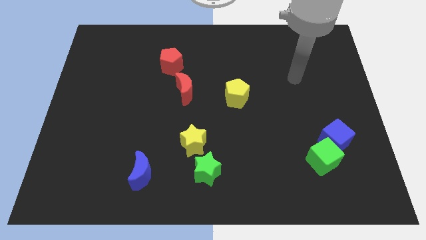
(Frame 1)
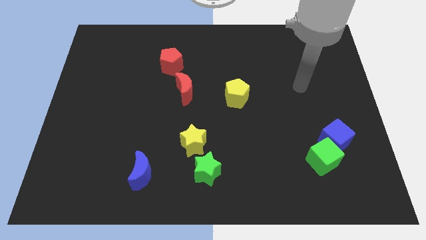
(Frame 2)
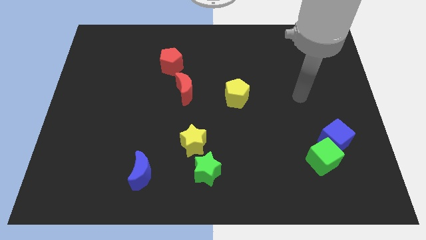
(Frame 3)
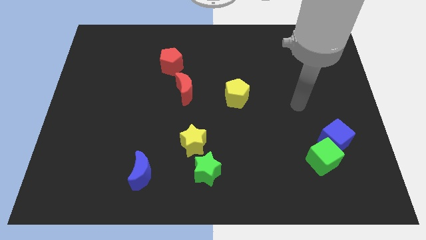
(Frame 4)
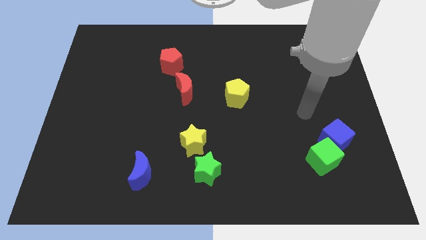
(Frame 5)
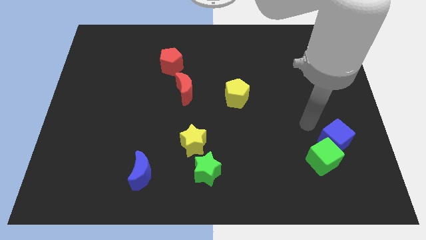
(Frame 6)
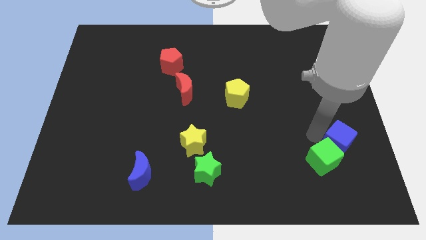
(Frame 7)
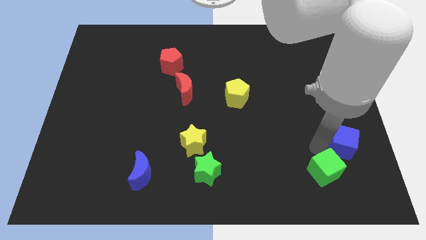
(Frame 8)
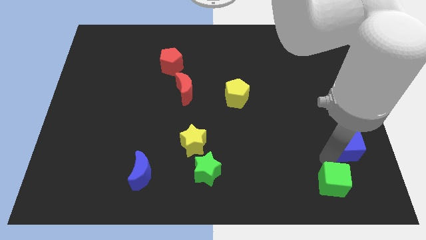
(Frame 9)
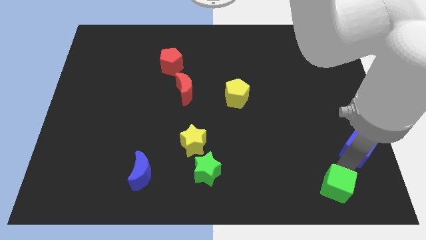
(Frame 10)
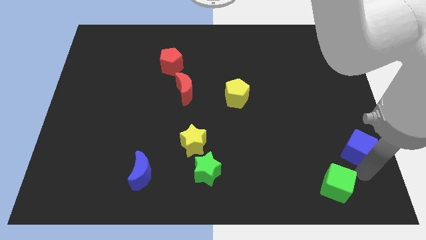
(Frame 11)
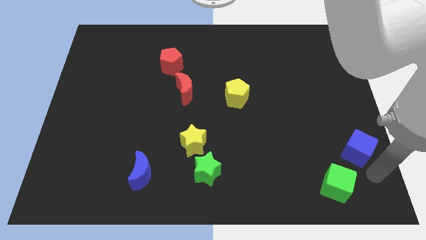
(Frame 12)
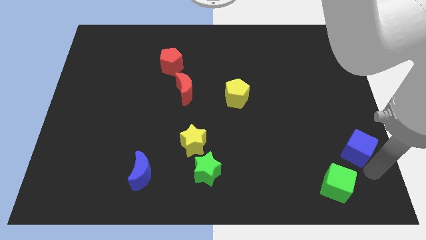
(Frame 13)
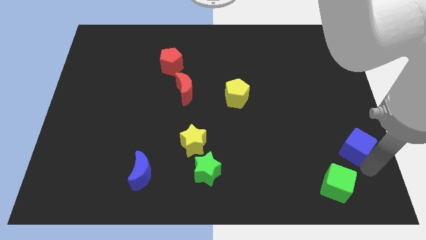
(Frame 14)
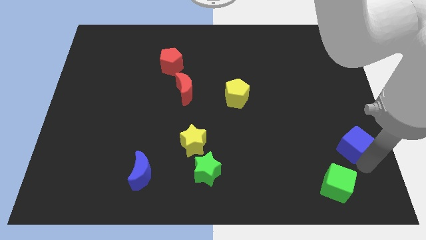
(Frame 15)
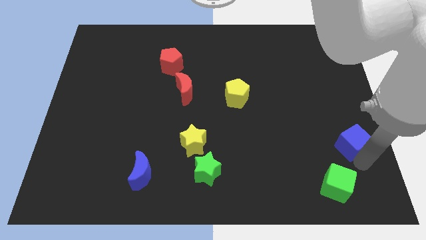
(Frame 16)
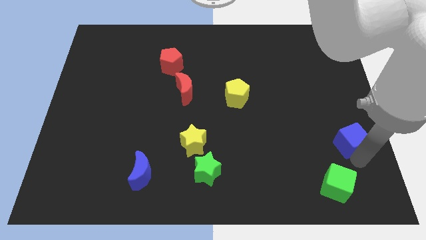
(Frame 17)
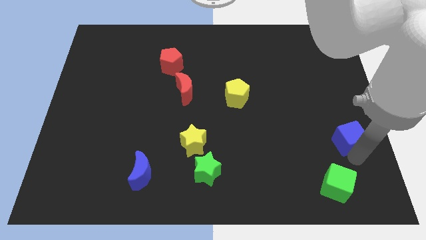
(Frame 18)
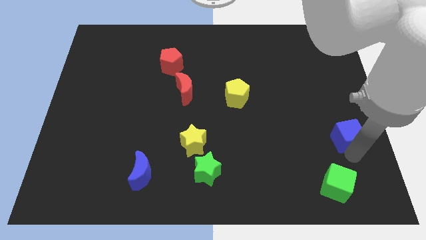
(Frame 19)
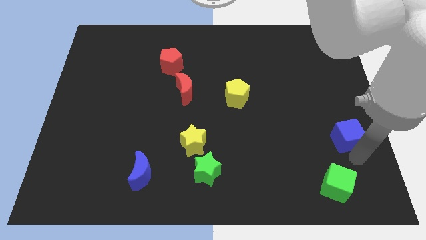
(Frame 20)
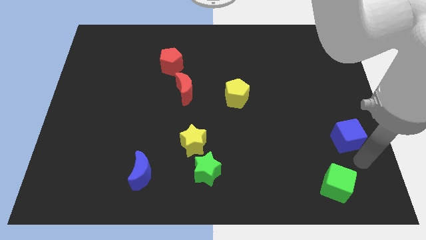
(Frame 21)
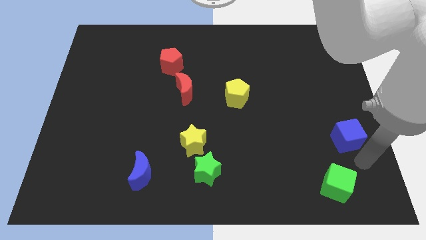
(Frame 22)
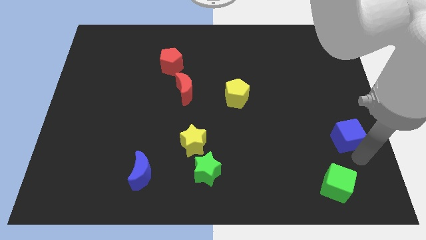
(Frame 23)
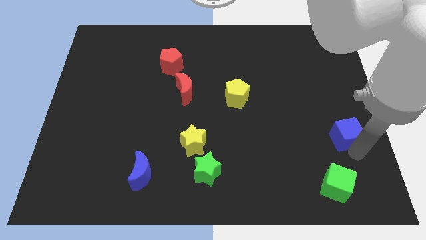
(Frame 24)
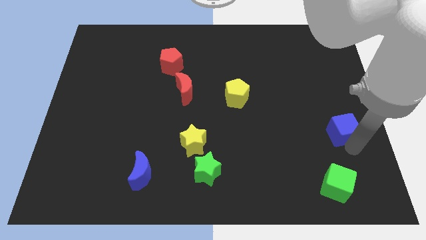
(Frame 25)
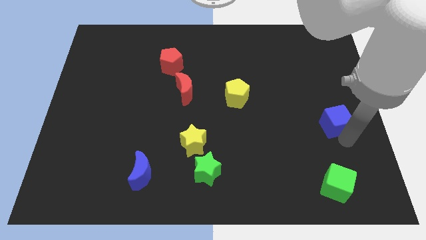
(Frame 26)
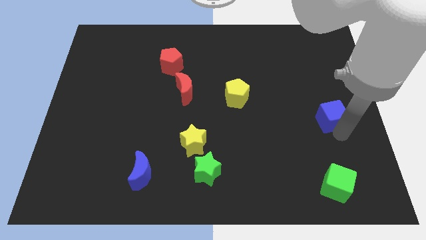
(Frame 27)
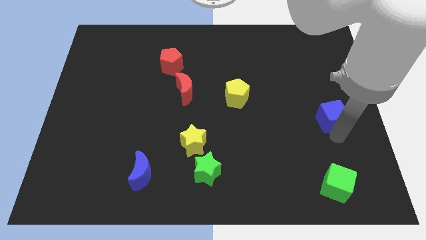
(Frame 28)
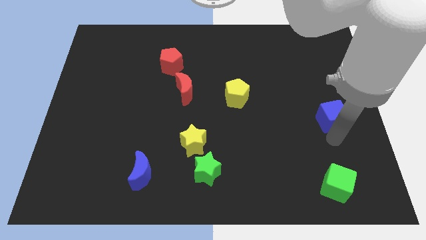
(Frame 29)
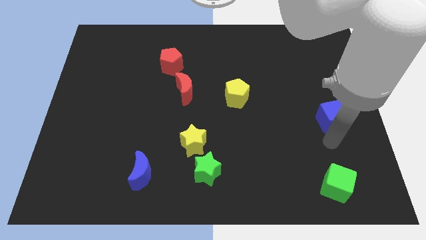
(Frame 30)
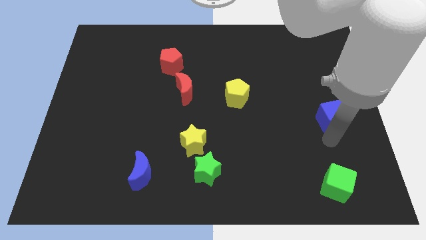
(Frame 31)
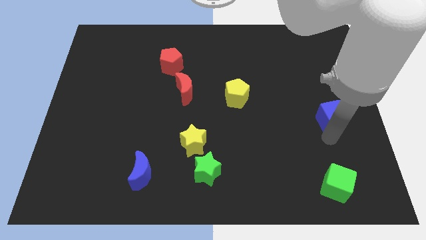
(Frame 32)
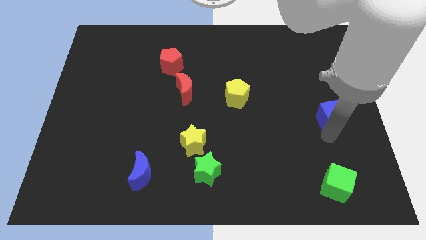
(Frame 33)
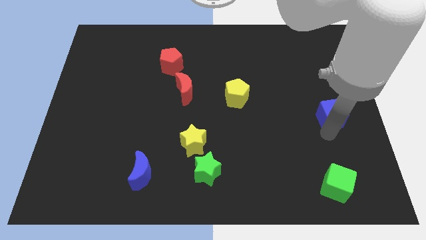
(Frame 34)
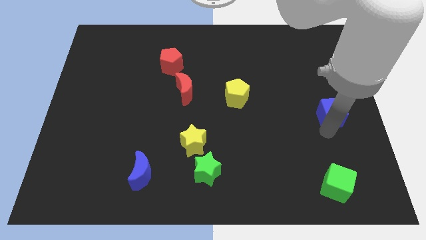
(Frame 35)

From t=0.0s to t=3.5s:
move the blue cube somewhat upwards

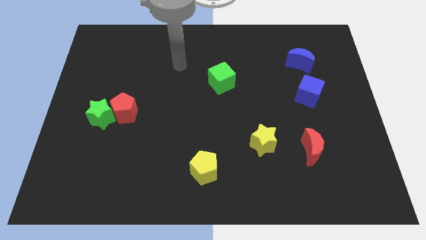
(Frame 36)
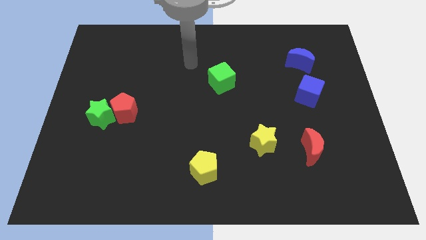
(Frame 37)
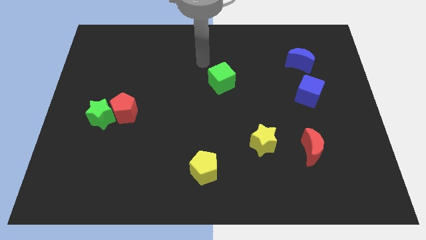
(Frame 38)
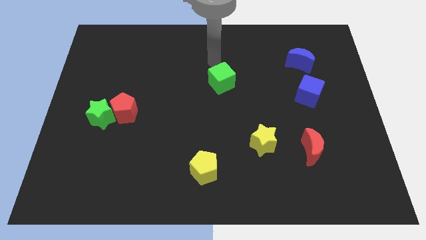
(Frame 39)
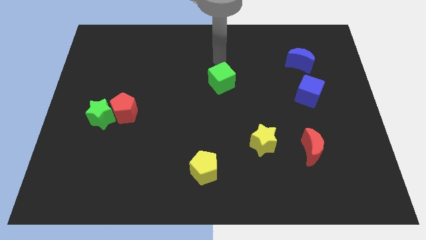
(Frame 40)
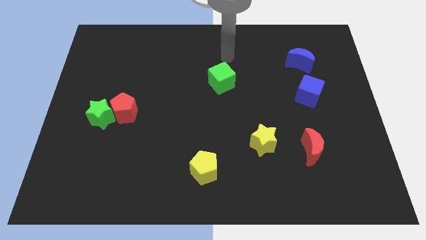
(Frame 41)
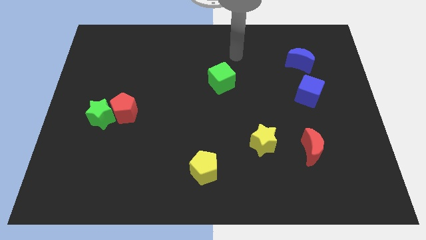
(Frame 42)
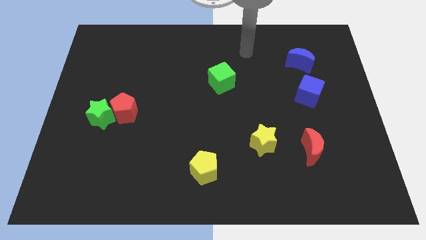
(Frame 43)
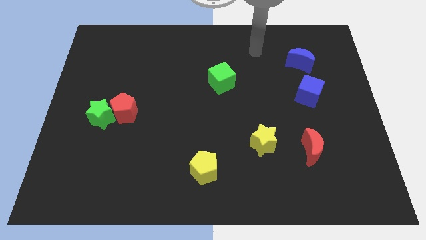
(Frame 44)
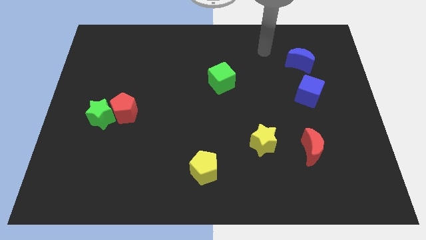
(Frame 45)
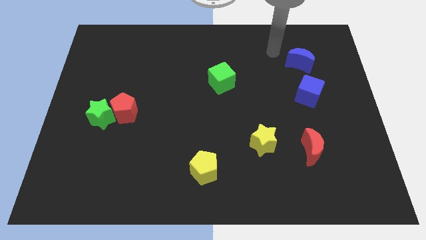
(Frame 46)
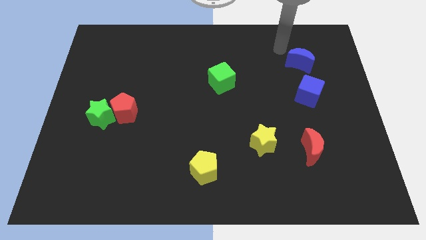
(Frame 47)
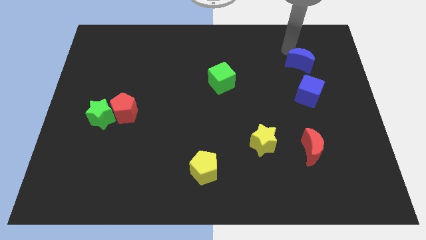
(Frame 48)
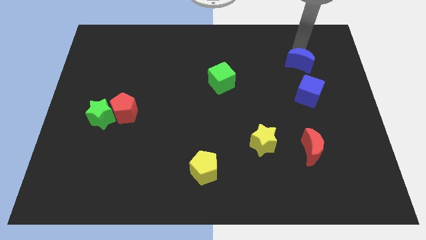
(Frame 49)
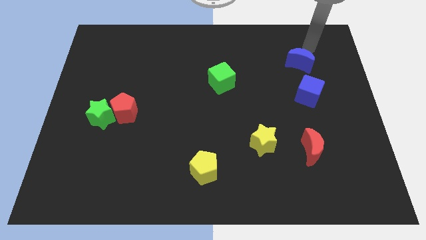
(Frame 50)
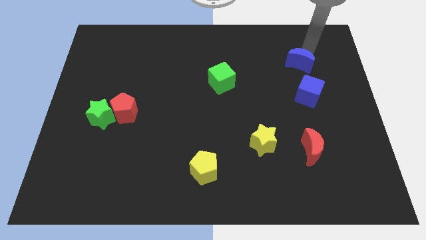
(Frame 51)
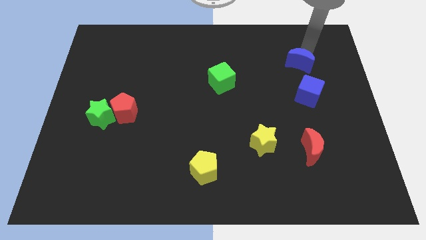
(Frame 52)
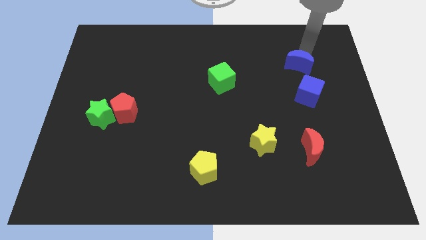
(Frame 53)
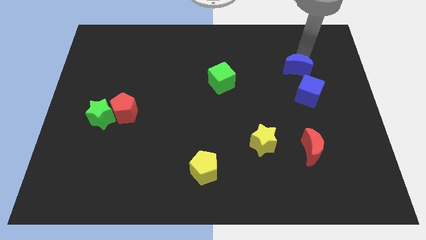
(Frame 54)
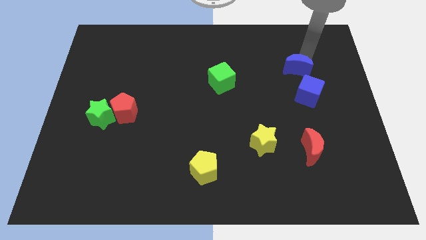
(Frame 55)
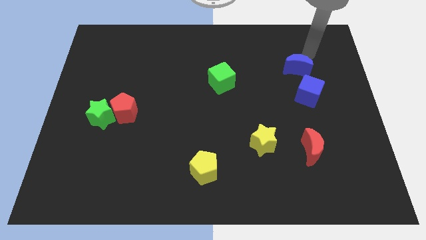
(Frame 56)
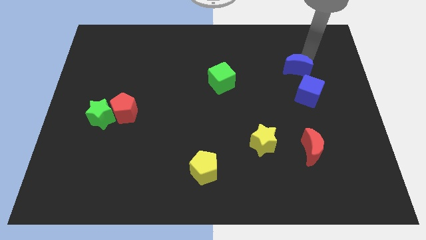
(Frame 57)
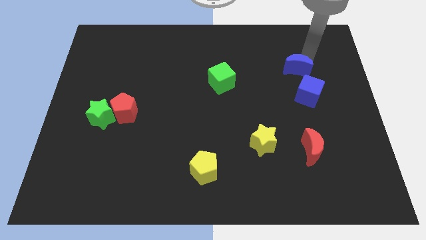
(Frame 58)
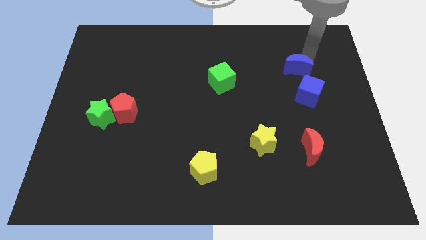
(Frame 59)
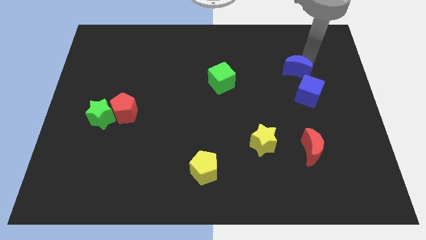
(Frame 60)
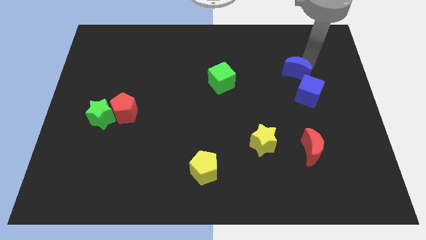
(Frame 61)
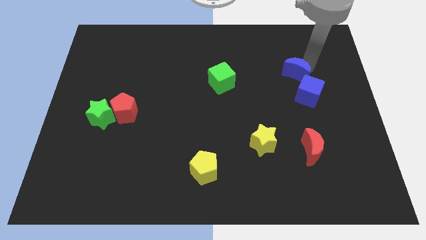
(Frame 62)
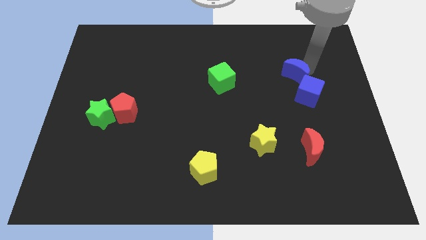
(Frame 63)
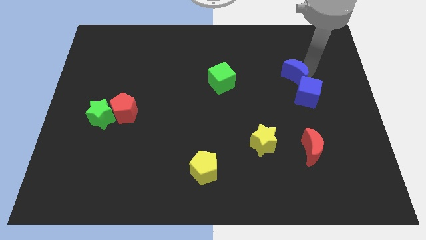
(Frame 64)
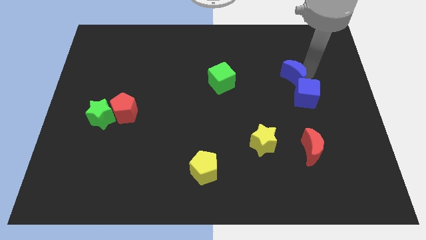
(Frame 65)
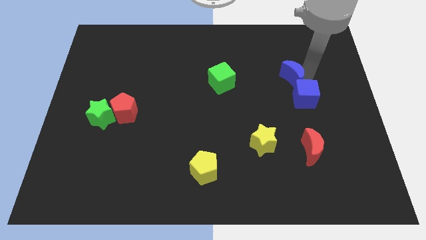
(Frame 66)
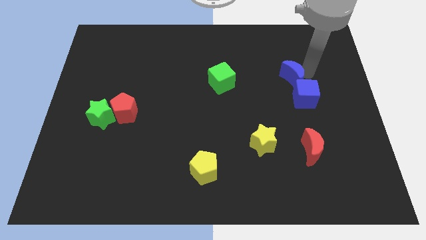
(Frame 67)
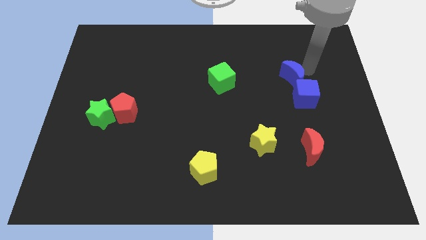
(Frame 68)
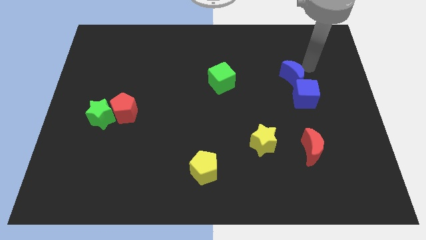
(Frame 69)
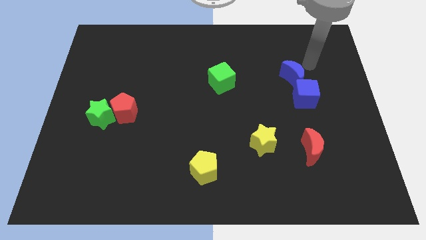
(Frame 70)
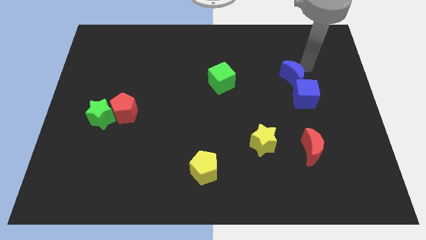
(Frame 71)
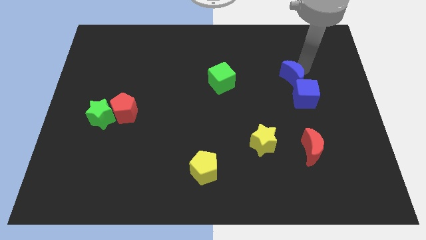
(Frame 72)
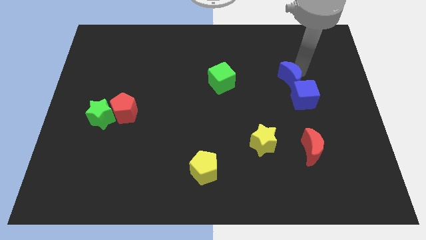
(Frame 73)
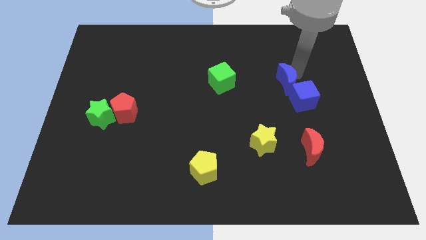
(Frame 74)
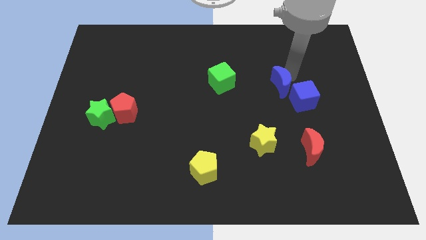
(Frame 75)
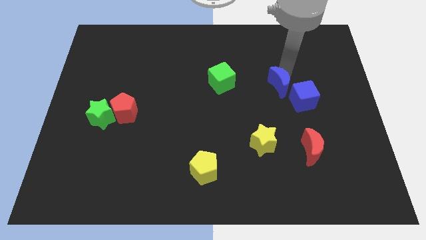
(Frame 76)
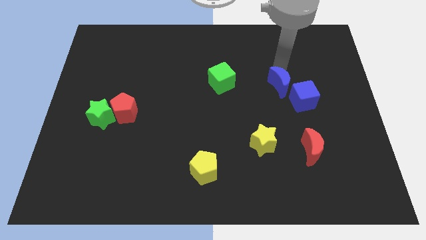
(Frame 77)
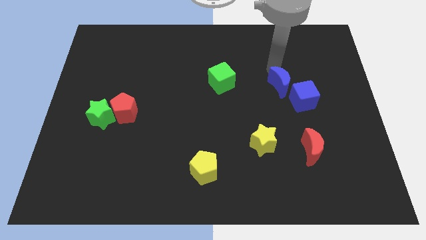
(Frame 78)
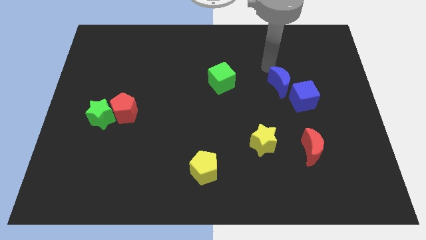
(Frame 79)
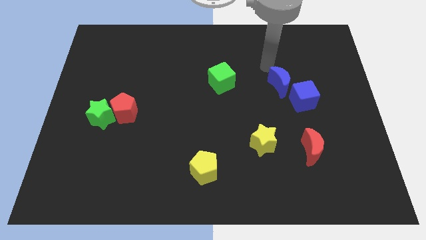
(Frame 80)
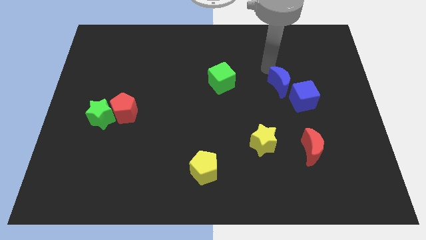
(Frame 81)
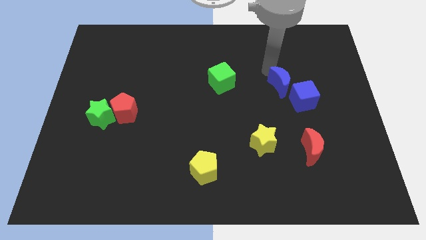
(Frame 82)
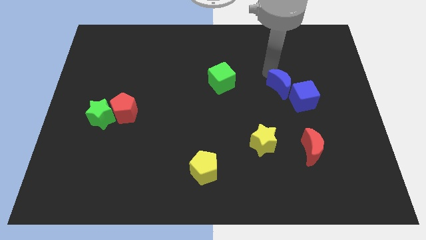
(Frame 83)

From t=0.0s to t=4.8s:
move the blue moon downwards somewhat
